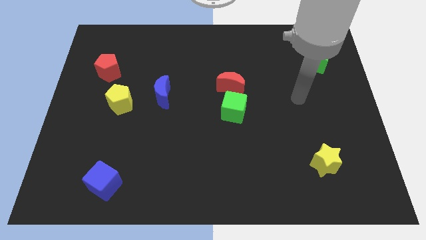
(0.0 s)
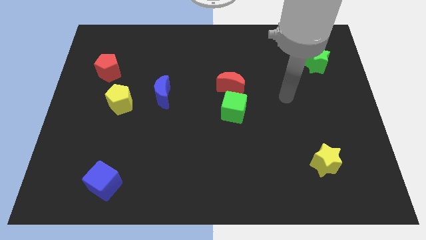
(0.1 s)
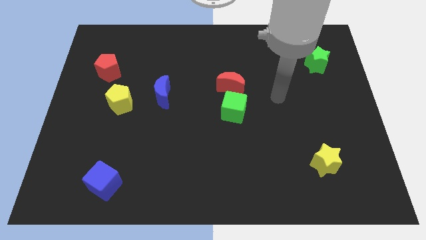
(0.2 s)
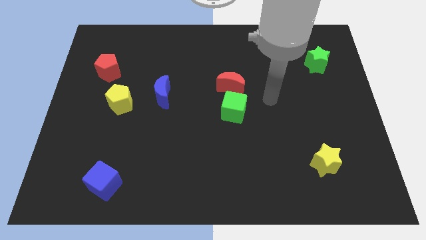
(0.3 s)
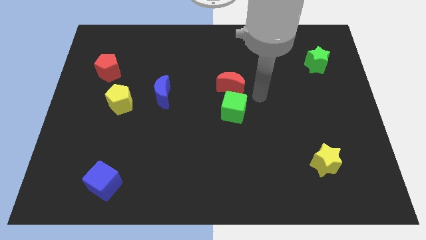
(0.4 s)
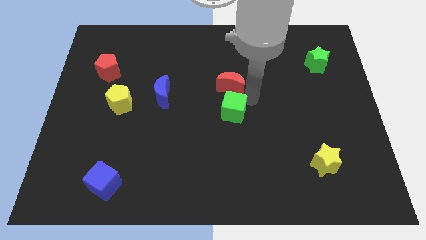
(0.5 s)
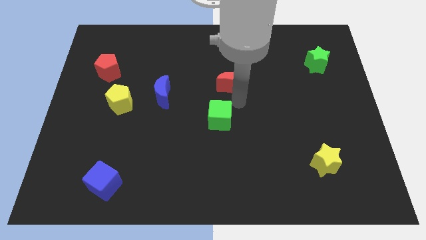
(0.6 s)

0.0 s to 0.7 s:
pull the red moon apart from the green cube

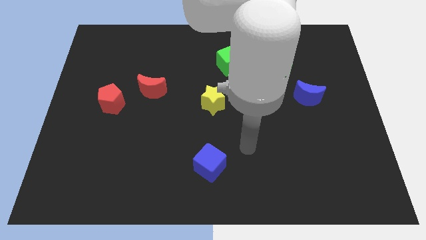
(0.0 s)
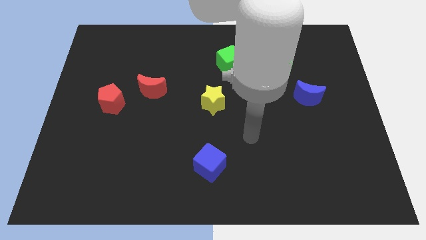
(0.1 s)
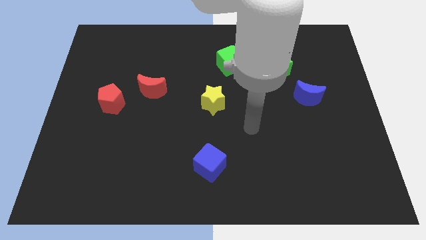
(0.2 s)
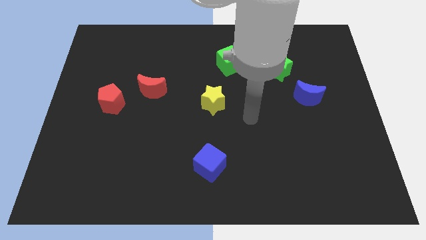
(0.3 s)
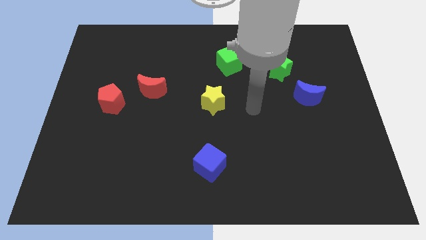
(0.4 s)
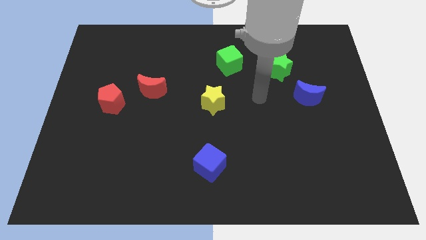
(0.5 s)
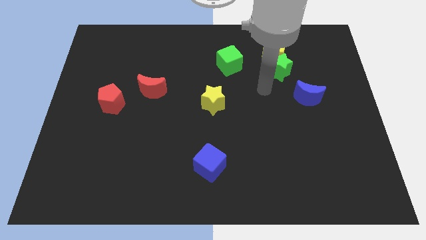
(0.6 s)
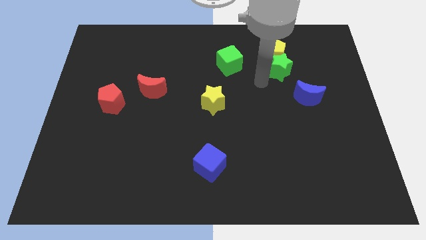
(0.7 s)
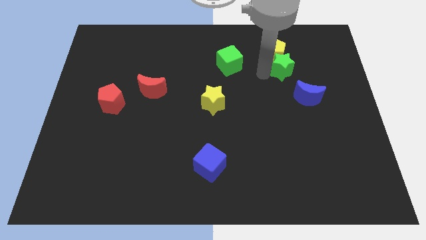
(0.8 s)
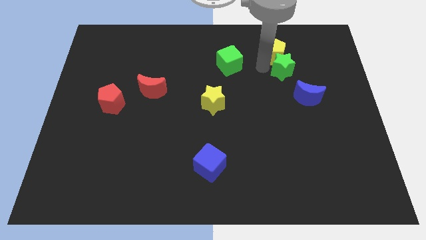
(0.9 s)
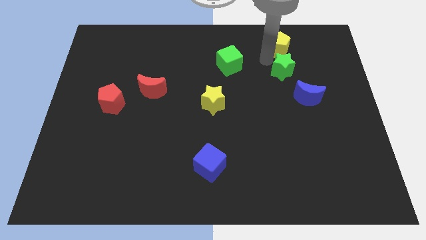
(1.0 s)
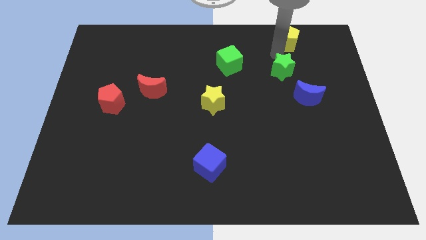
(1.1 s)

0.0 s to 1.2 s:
pull the green star apart from the yellow pentagon

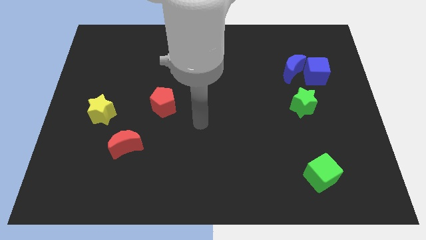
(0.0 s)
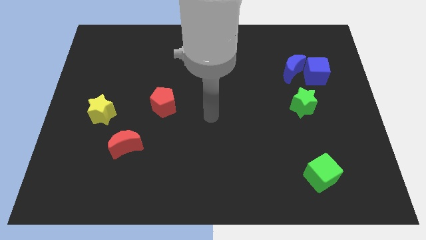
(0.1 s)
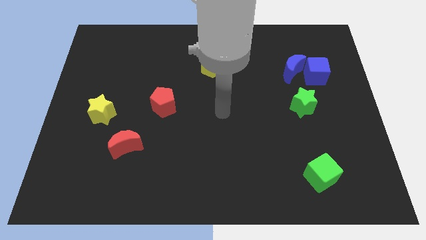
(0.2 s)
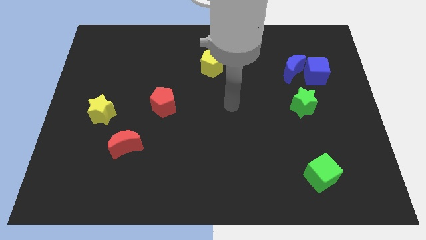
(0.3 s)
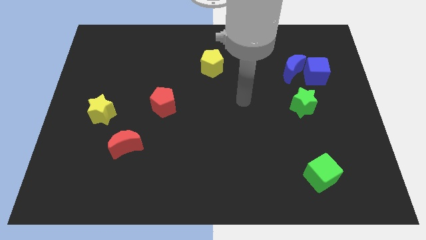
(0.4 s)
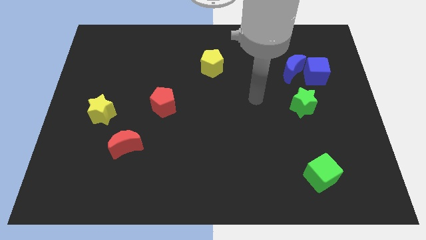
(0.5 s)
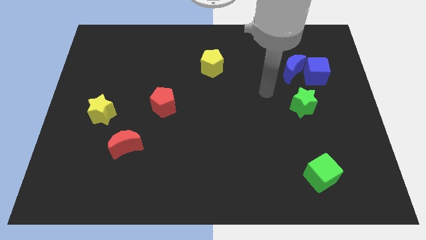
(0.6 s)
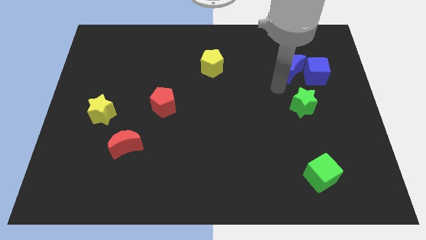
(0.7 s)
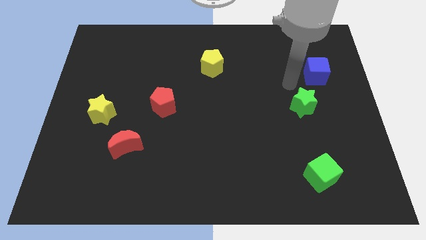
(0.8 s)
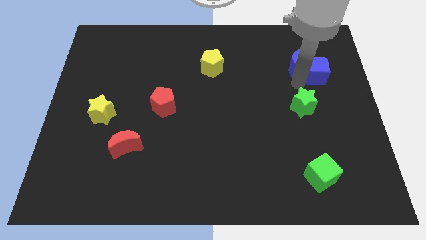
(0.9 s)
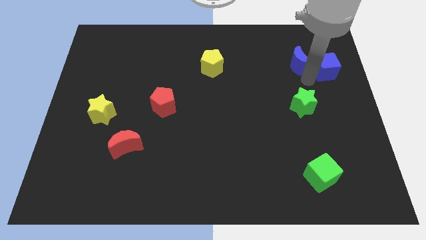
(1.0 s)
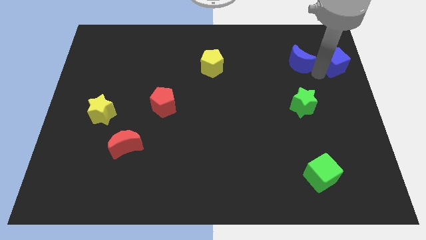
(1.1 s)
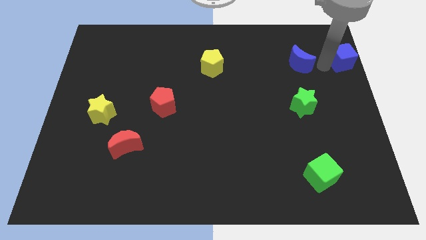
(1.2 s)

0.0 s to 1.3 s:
pull the blue moon apart from the blue cube

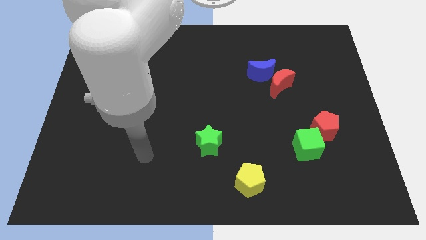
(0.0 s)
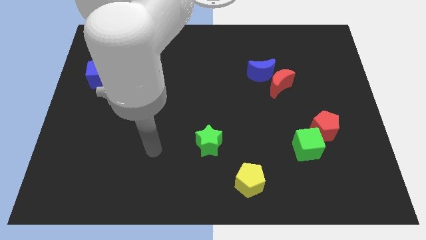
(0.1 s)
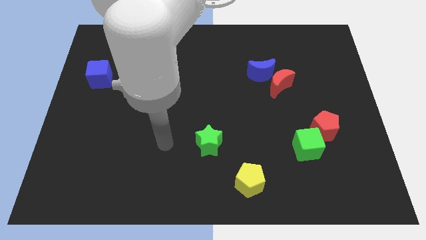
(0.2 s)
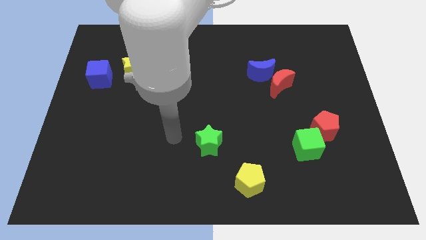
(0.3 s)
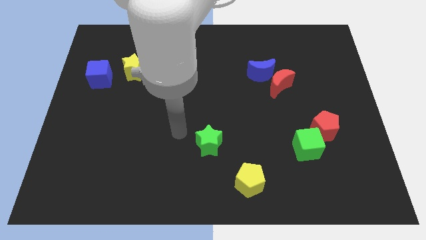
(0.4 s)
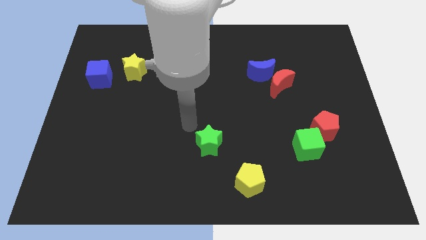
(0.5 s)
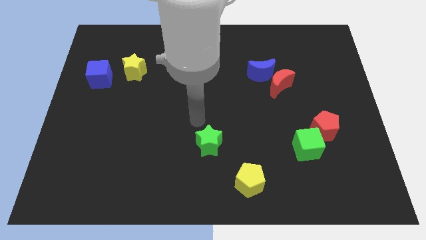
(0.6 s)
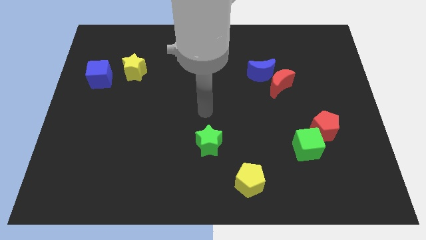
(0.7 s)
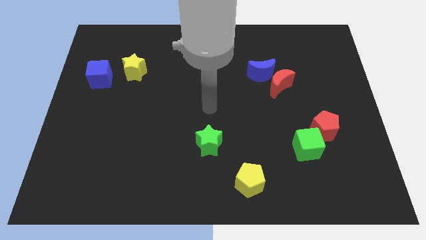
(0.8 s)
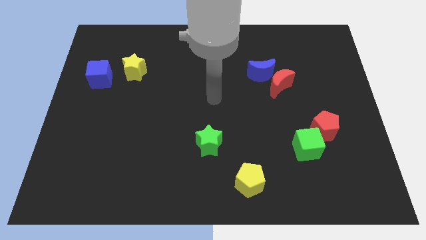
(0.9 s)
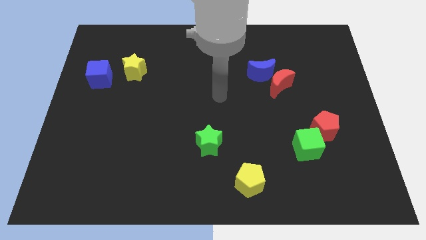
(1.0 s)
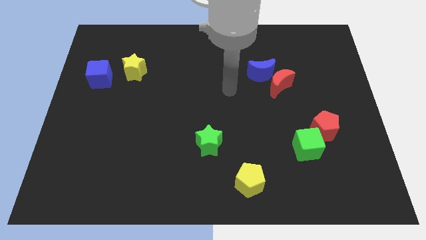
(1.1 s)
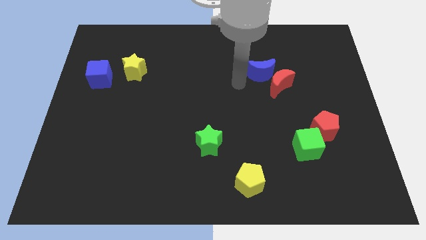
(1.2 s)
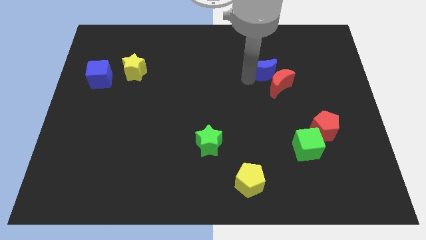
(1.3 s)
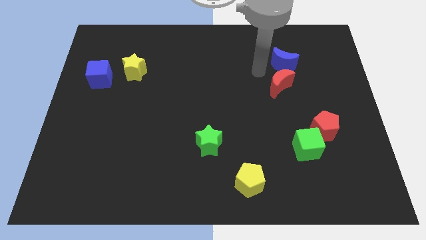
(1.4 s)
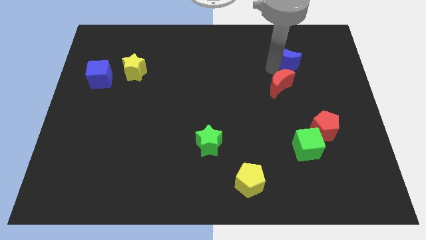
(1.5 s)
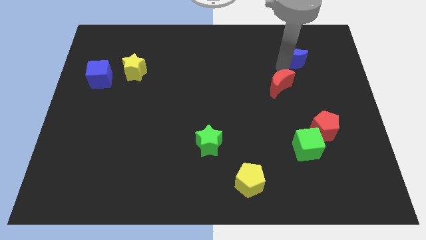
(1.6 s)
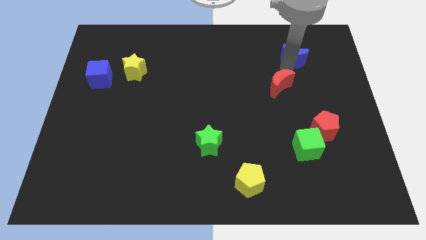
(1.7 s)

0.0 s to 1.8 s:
pull the red moon apart from the blue moon

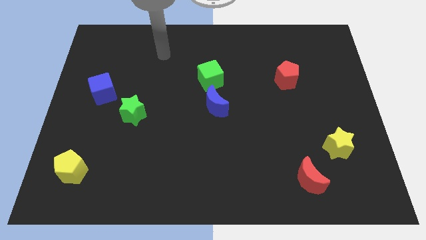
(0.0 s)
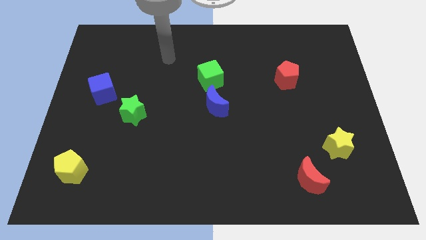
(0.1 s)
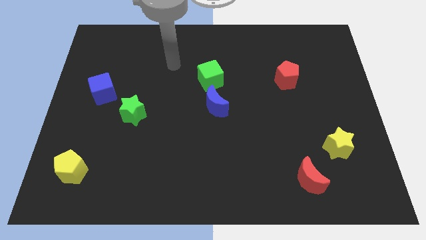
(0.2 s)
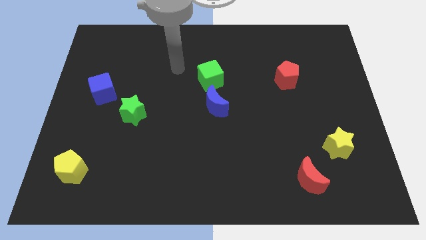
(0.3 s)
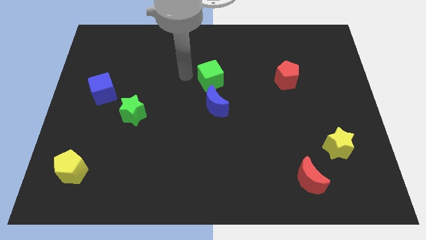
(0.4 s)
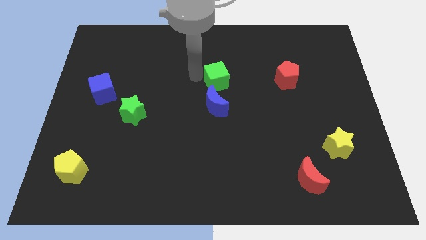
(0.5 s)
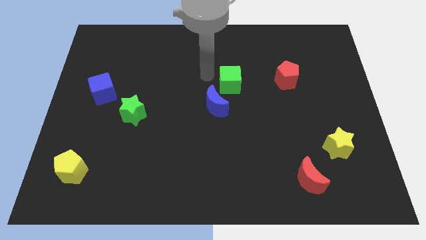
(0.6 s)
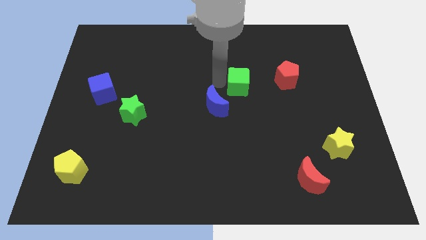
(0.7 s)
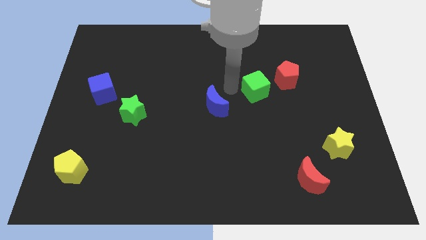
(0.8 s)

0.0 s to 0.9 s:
pull the blue moon apart from the green cube

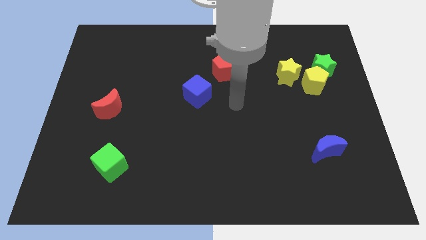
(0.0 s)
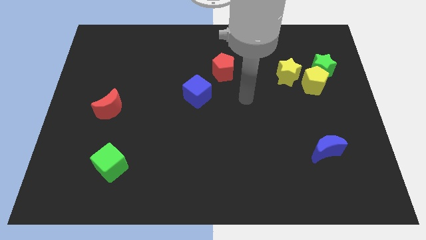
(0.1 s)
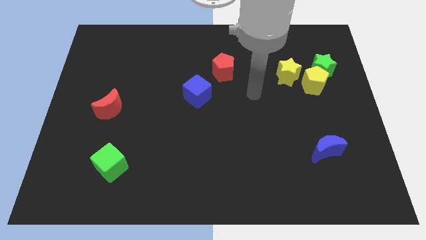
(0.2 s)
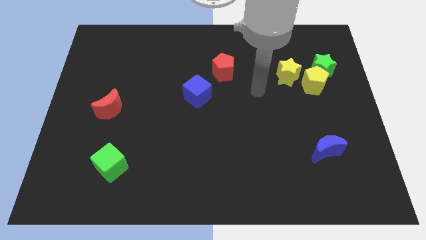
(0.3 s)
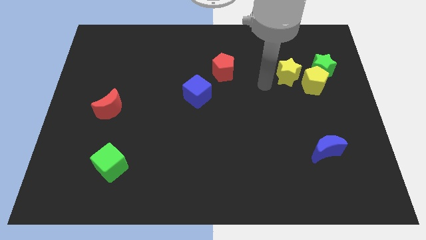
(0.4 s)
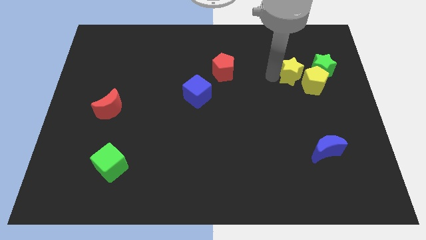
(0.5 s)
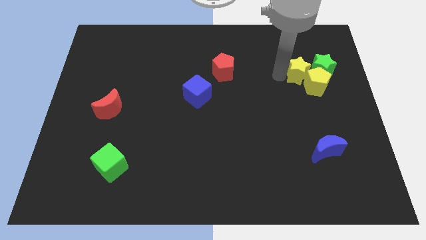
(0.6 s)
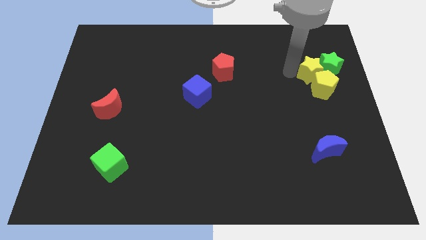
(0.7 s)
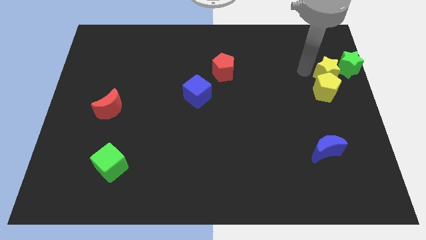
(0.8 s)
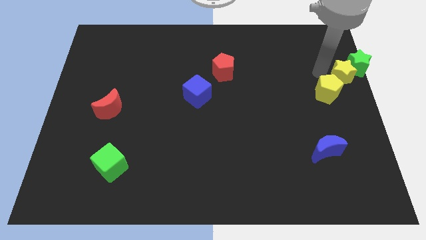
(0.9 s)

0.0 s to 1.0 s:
separate the yellow pentagon from the green star and yellow star

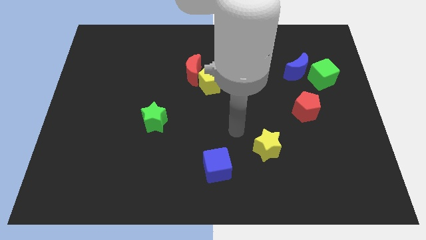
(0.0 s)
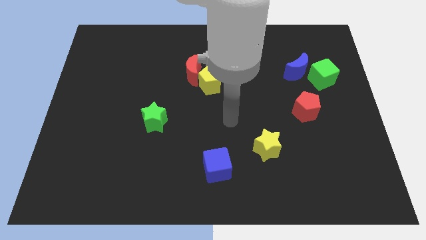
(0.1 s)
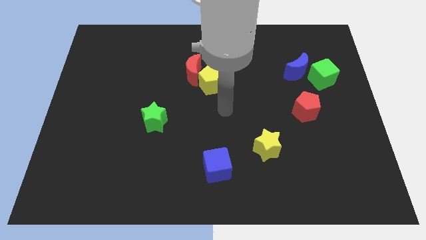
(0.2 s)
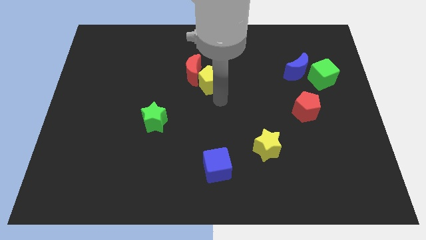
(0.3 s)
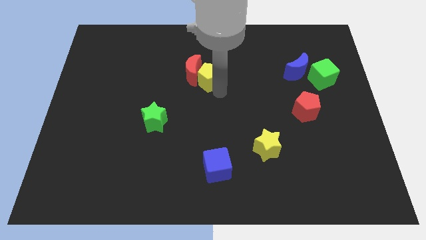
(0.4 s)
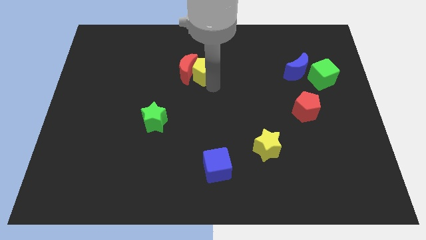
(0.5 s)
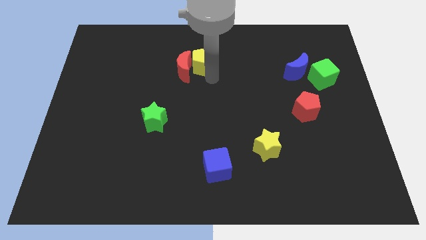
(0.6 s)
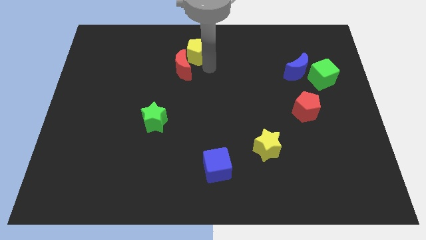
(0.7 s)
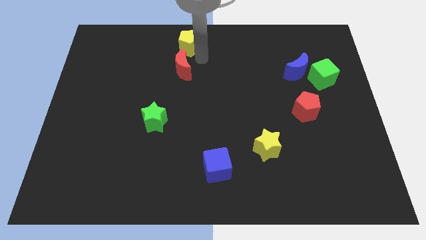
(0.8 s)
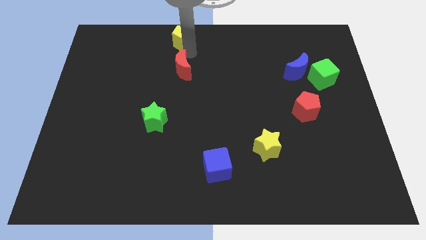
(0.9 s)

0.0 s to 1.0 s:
move the red moon away from the yellow pentagon

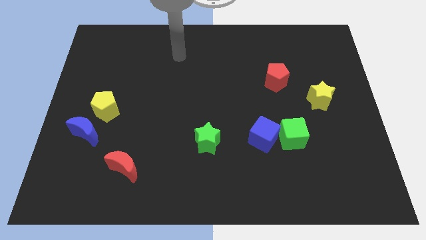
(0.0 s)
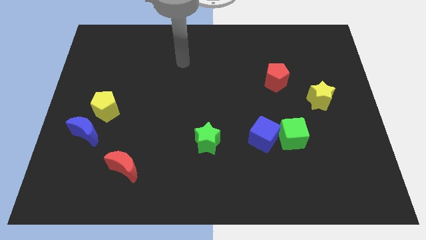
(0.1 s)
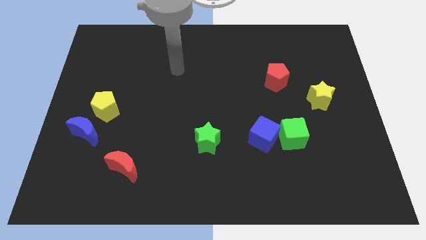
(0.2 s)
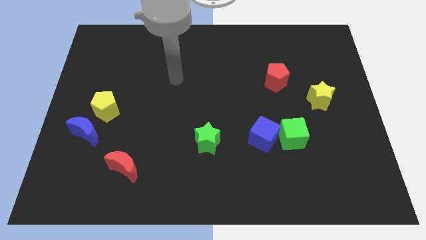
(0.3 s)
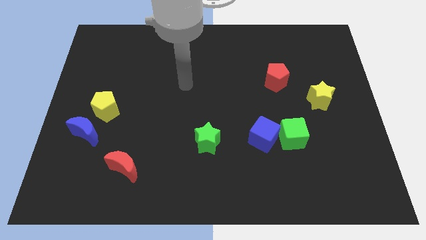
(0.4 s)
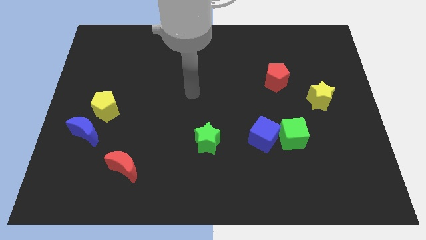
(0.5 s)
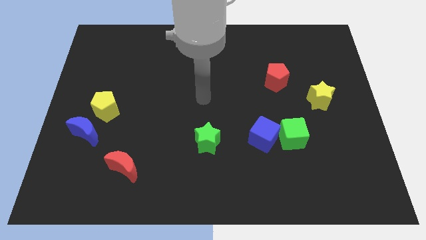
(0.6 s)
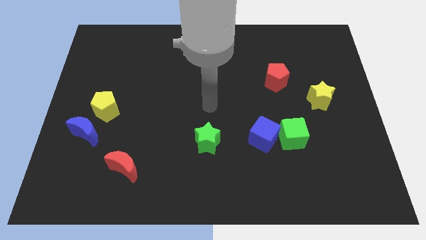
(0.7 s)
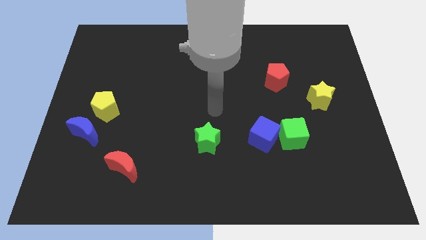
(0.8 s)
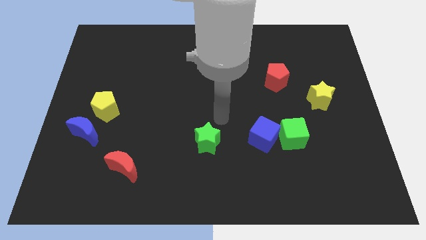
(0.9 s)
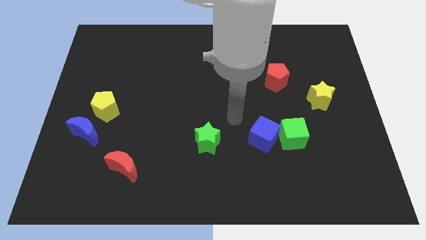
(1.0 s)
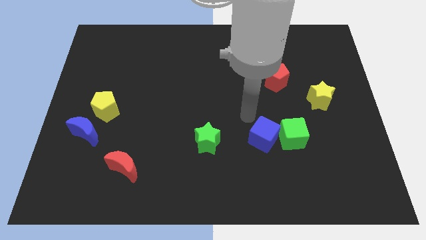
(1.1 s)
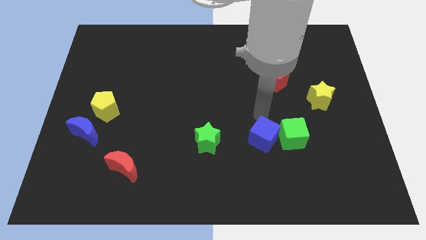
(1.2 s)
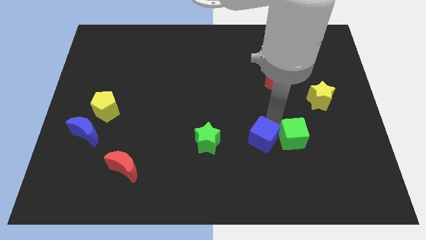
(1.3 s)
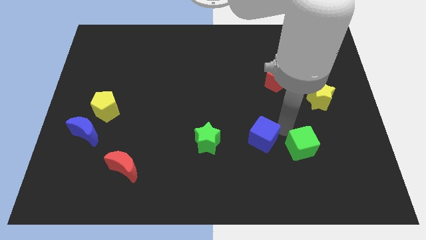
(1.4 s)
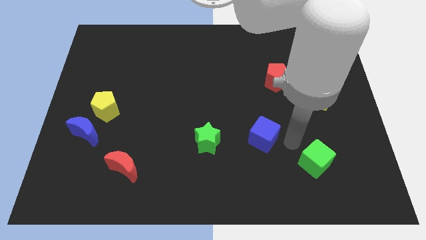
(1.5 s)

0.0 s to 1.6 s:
separate the blue cube from the green cube
